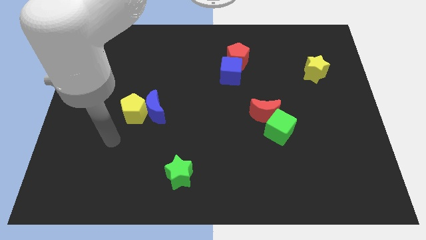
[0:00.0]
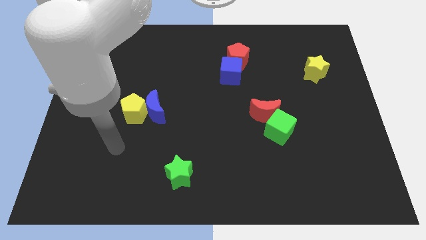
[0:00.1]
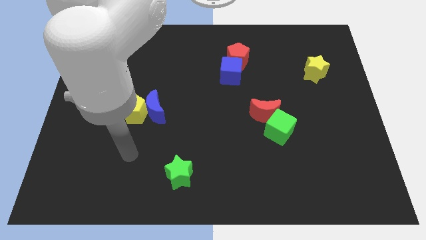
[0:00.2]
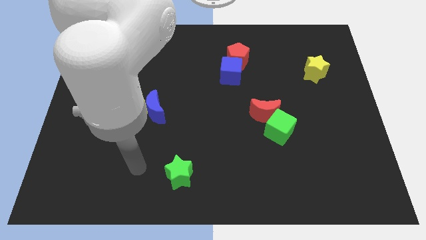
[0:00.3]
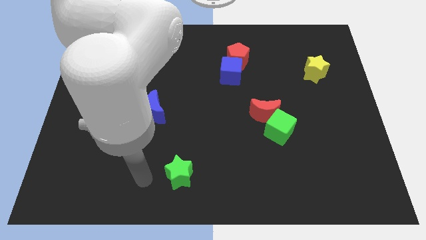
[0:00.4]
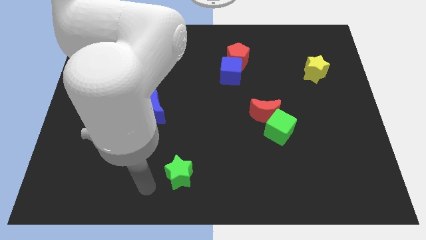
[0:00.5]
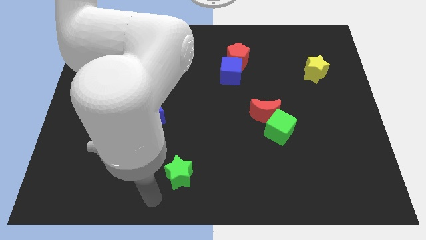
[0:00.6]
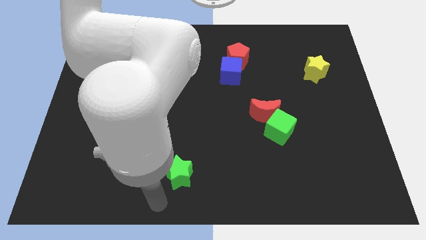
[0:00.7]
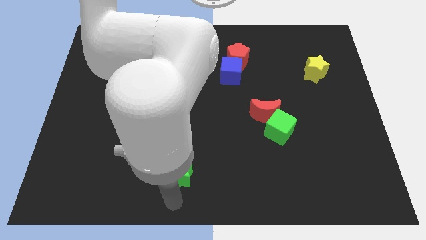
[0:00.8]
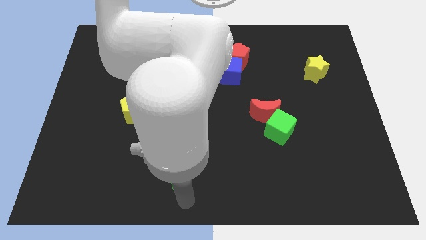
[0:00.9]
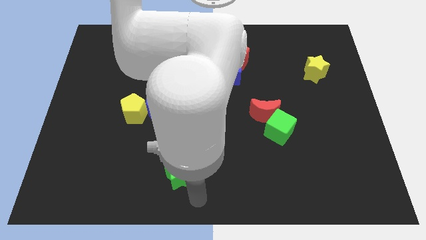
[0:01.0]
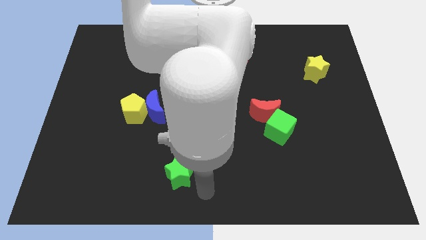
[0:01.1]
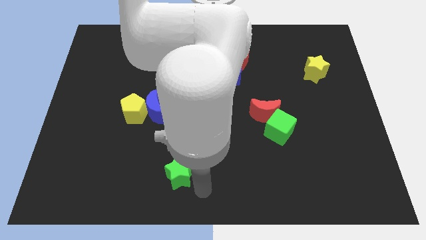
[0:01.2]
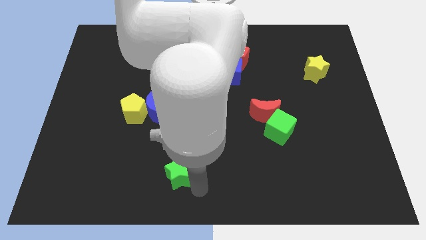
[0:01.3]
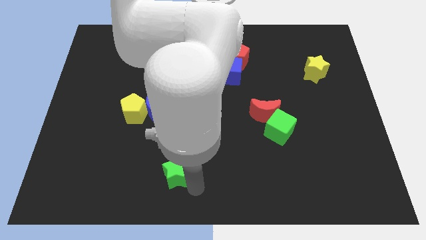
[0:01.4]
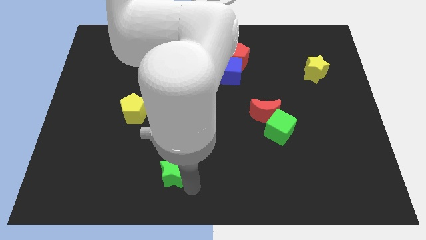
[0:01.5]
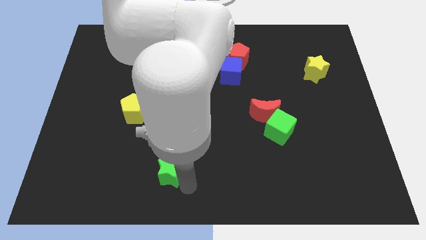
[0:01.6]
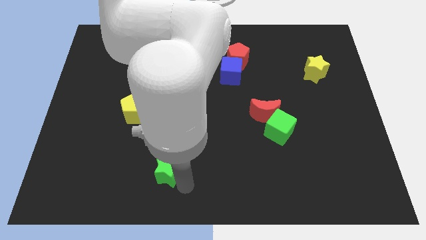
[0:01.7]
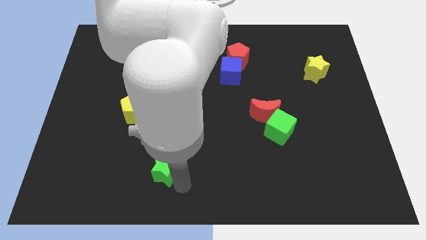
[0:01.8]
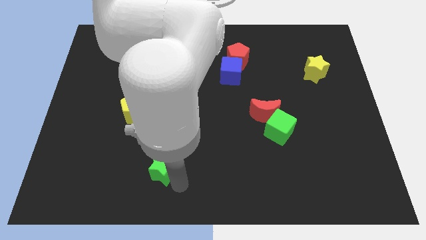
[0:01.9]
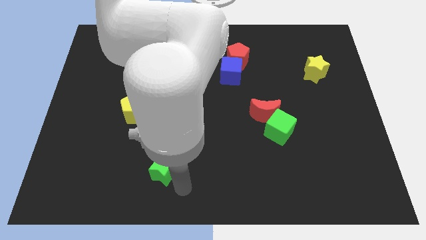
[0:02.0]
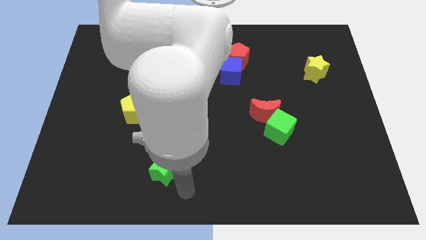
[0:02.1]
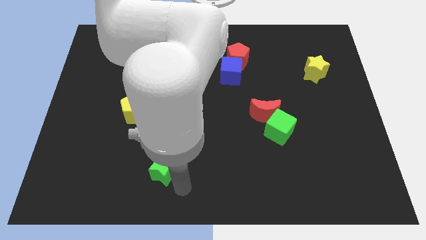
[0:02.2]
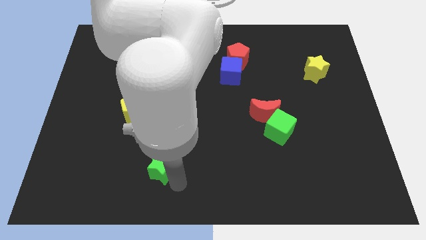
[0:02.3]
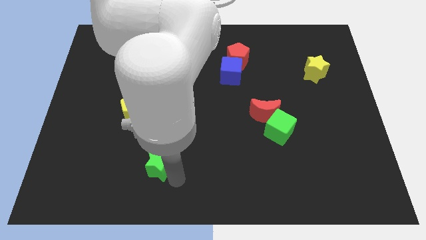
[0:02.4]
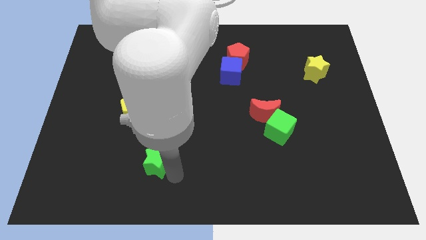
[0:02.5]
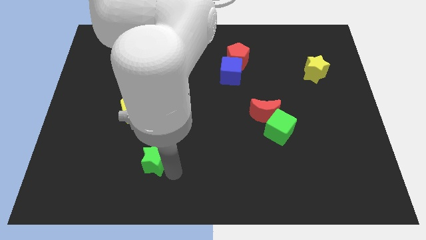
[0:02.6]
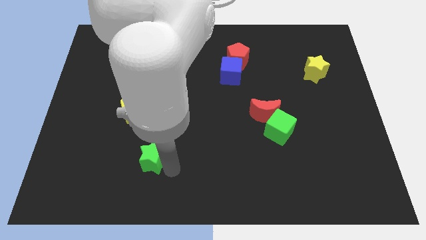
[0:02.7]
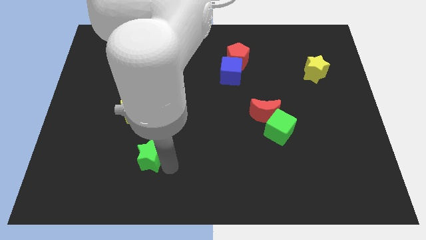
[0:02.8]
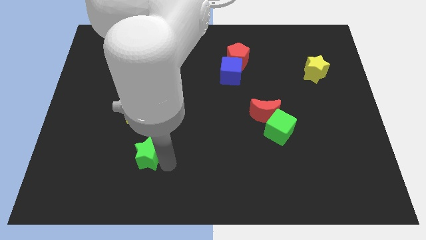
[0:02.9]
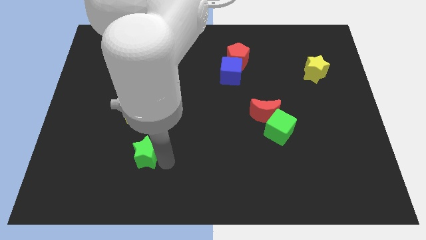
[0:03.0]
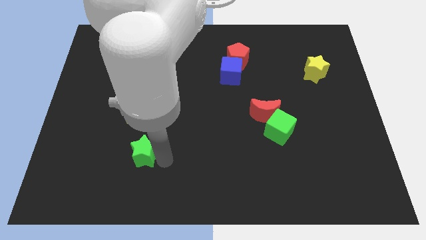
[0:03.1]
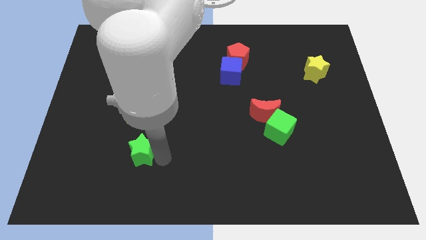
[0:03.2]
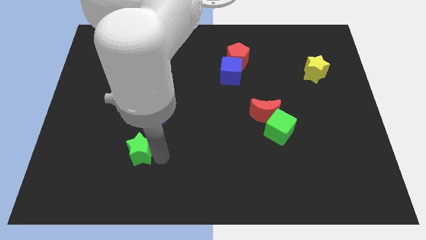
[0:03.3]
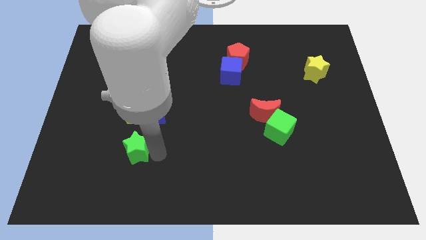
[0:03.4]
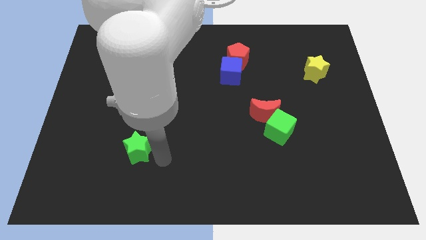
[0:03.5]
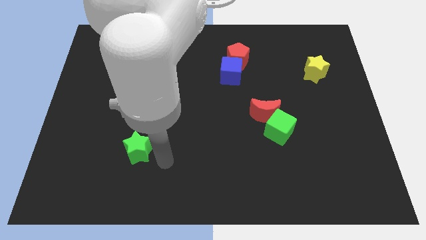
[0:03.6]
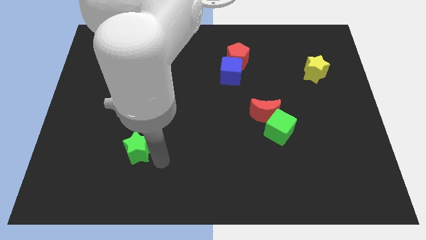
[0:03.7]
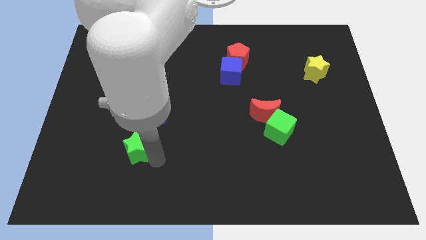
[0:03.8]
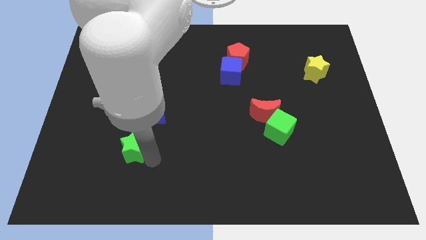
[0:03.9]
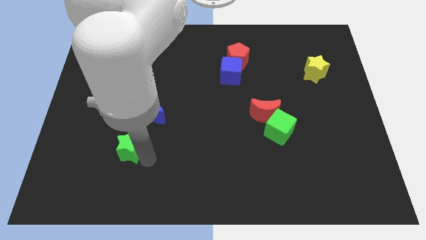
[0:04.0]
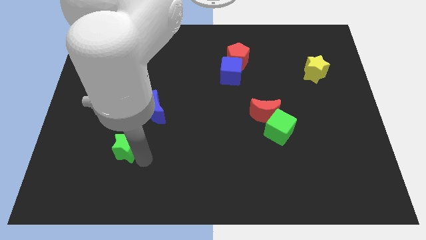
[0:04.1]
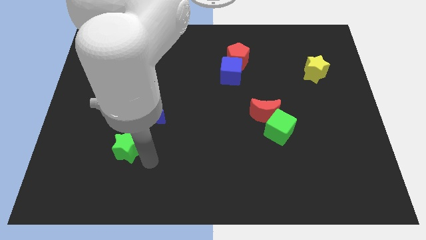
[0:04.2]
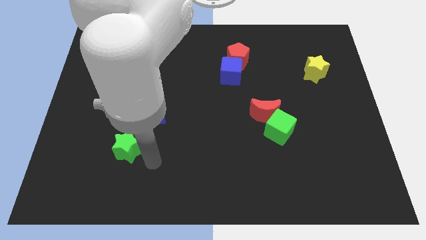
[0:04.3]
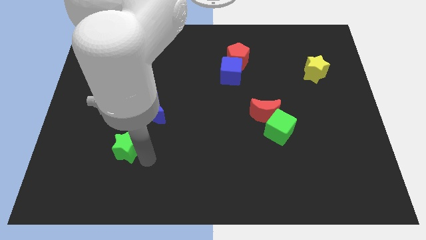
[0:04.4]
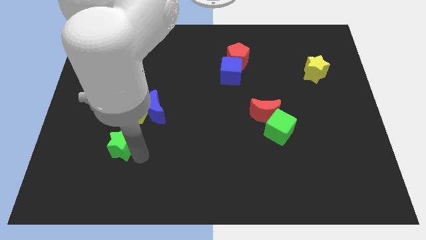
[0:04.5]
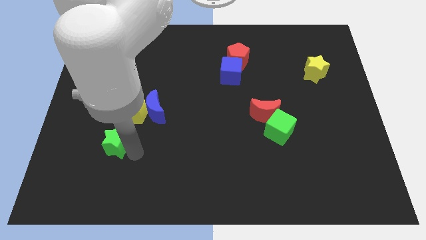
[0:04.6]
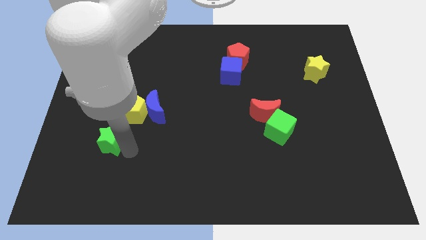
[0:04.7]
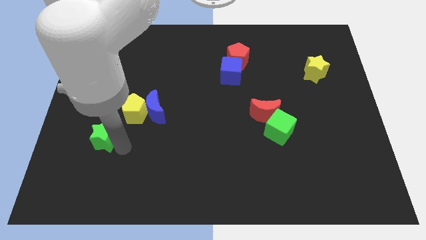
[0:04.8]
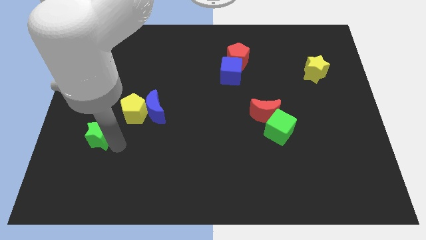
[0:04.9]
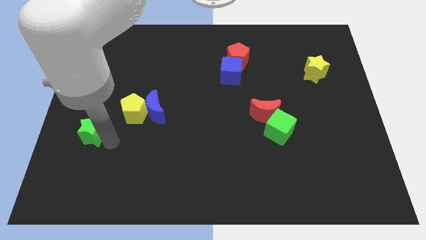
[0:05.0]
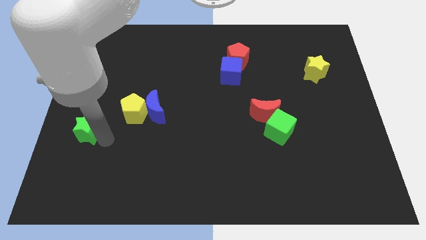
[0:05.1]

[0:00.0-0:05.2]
put the green star to the left side

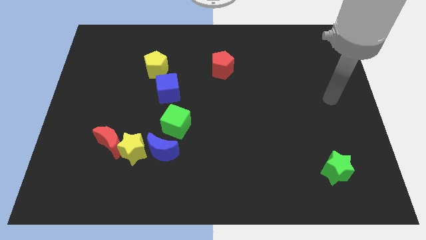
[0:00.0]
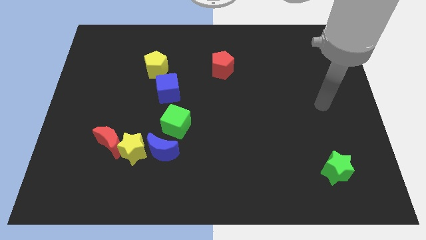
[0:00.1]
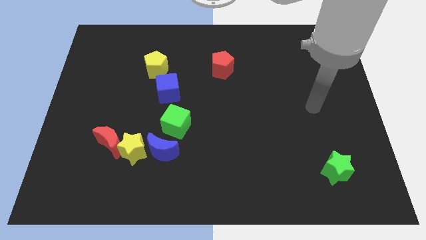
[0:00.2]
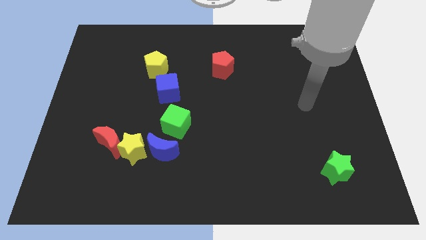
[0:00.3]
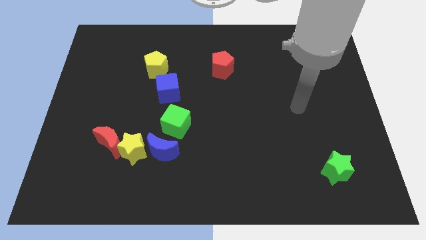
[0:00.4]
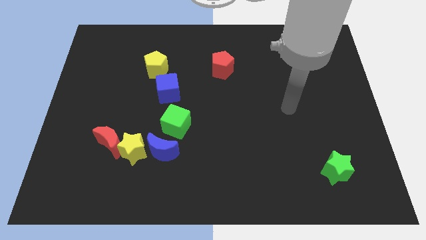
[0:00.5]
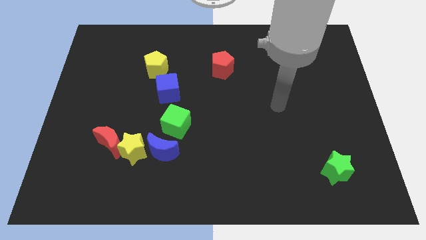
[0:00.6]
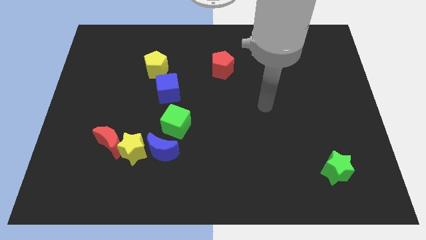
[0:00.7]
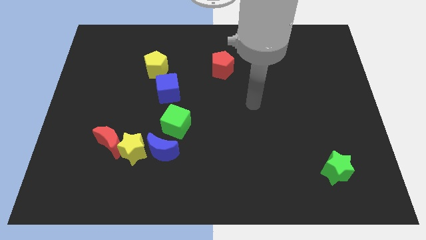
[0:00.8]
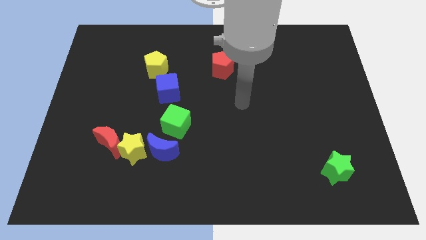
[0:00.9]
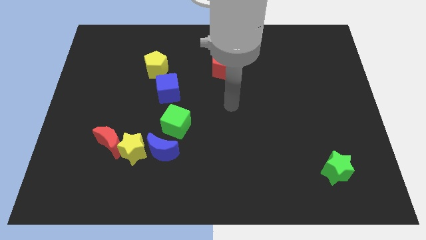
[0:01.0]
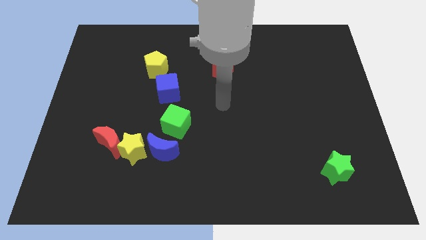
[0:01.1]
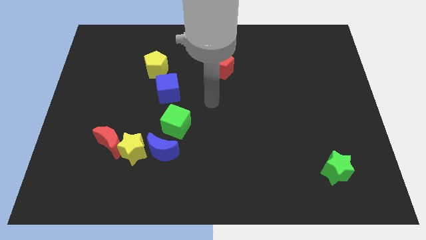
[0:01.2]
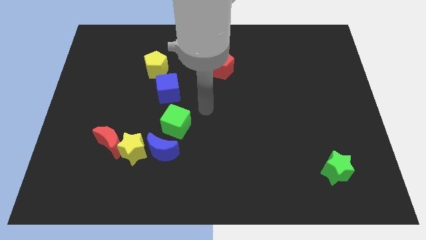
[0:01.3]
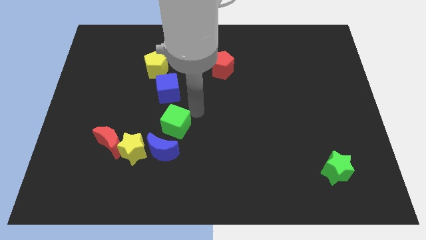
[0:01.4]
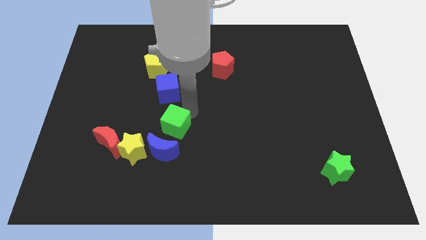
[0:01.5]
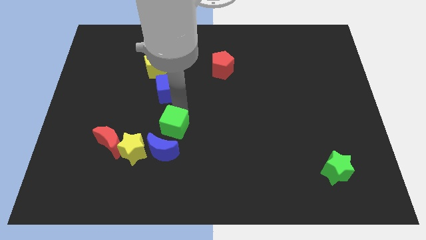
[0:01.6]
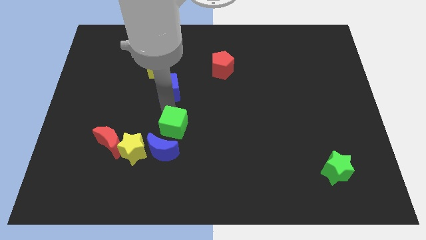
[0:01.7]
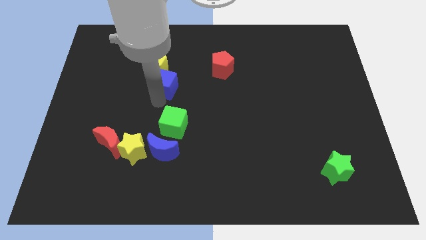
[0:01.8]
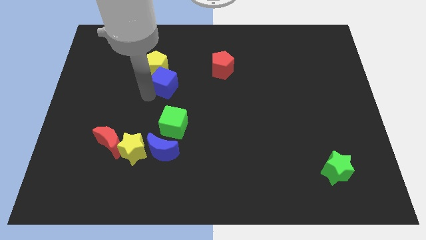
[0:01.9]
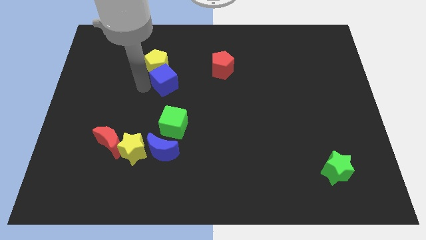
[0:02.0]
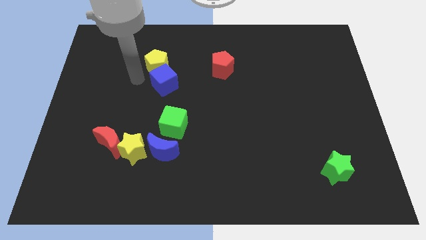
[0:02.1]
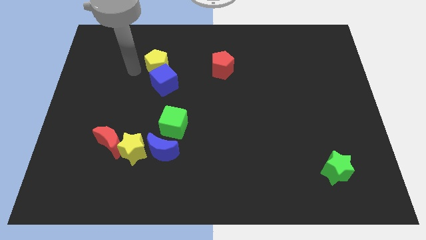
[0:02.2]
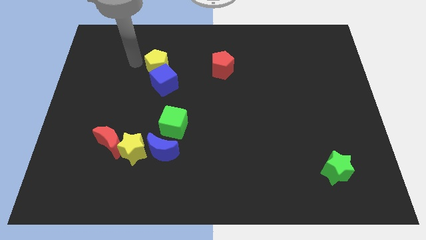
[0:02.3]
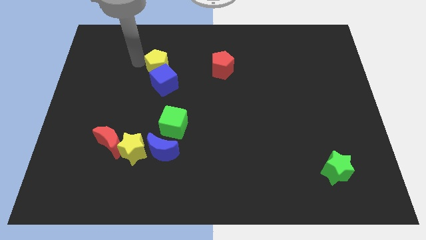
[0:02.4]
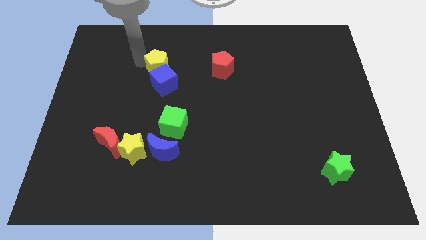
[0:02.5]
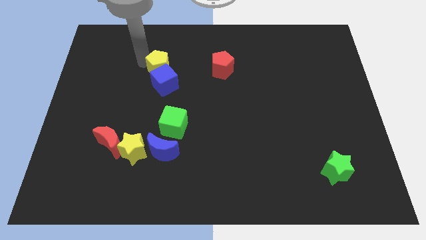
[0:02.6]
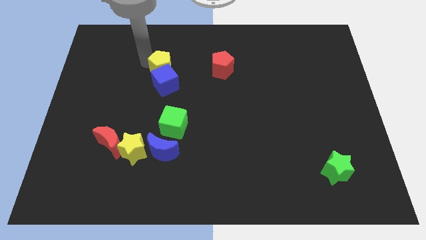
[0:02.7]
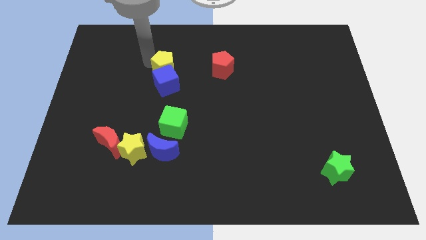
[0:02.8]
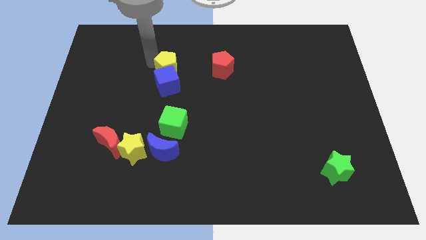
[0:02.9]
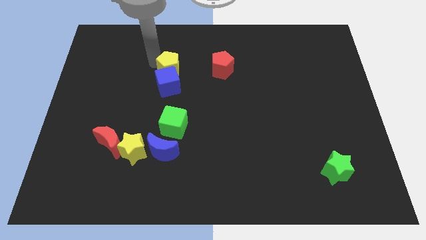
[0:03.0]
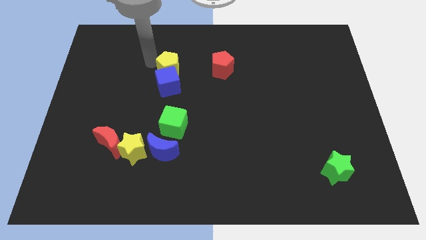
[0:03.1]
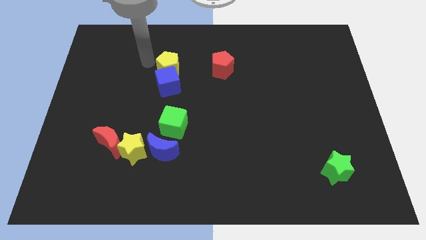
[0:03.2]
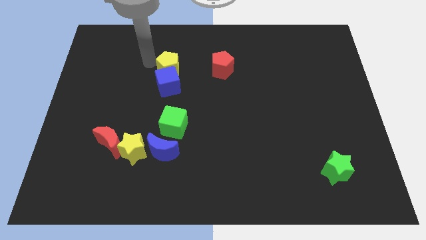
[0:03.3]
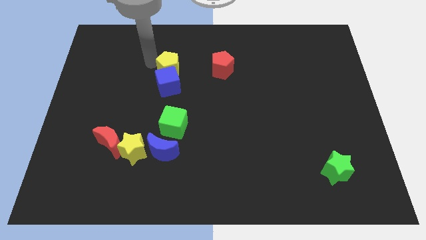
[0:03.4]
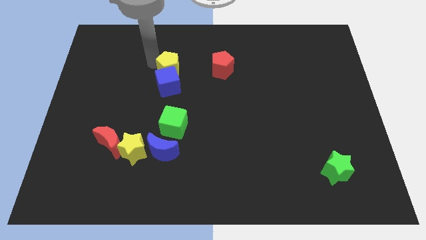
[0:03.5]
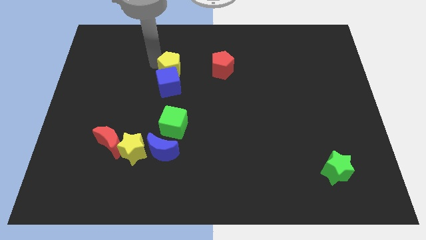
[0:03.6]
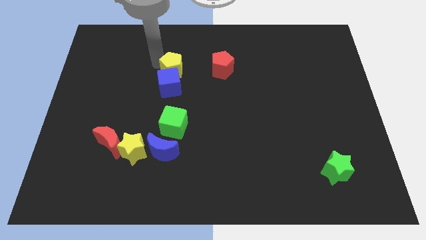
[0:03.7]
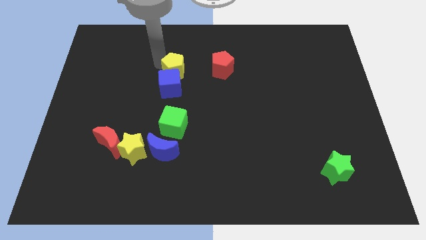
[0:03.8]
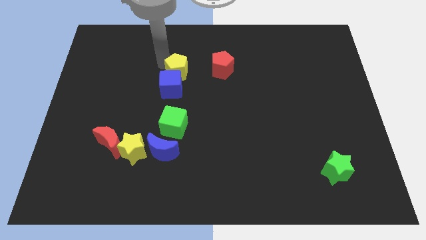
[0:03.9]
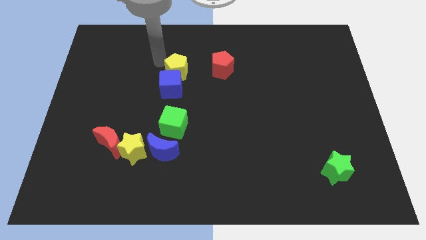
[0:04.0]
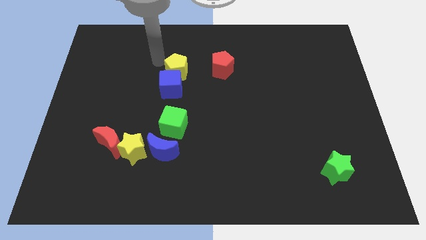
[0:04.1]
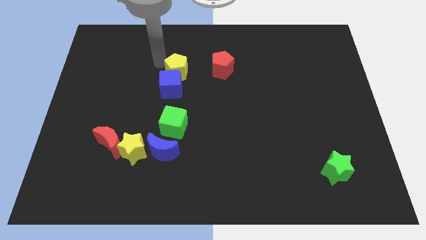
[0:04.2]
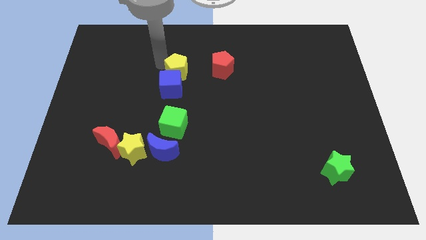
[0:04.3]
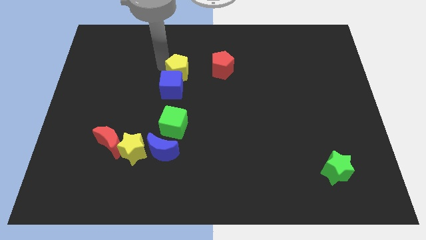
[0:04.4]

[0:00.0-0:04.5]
put the yellow pentagon to the center of the board
